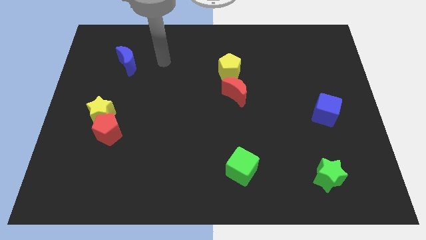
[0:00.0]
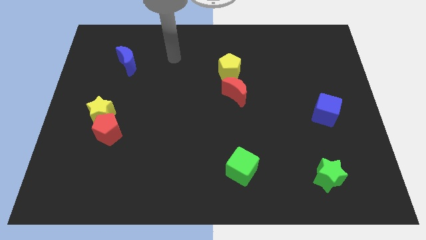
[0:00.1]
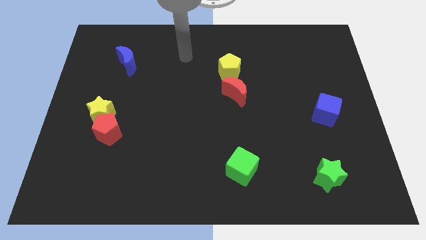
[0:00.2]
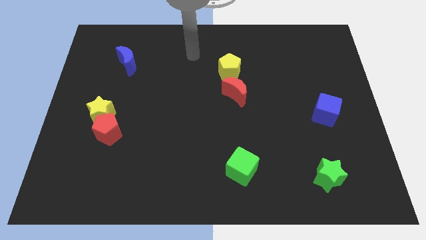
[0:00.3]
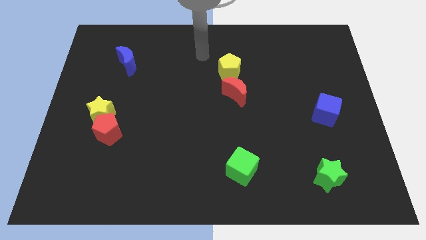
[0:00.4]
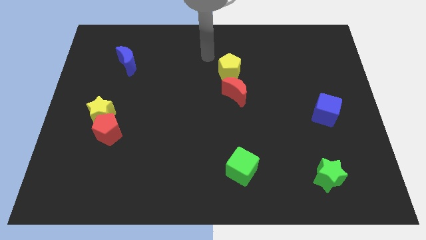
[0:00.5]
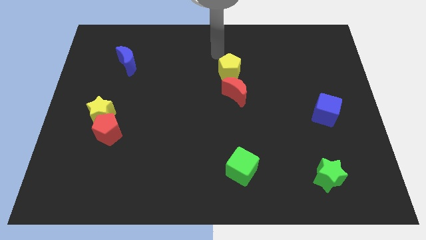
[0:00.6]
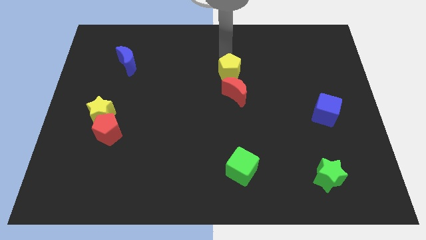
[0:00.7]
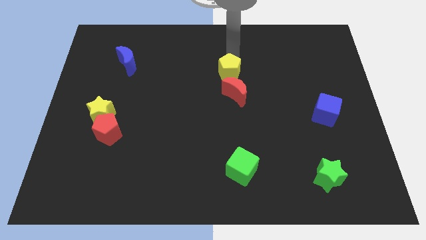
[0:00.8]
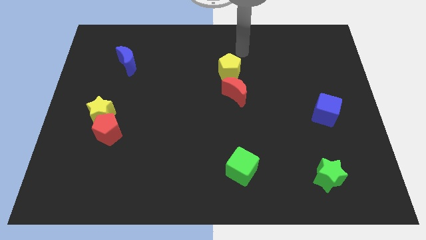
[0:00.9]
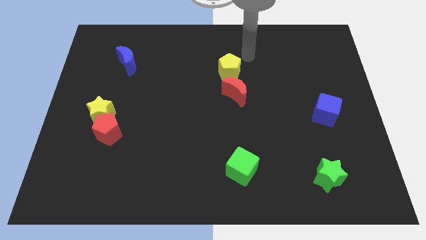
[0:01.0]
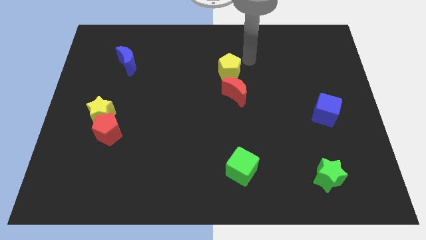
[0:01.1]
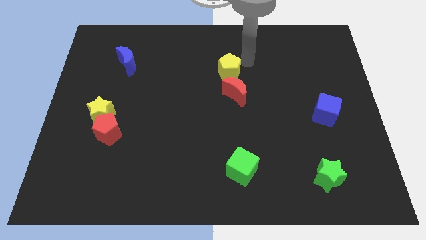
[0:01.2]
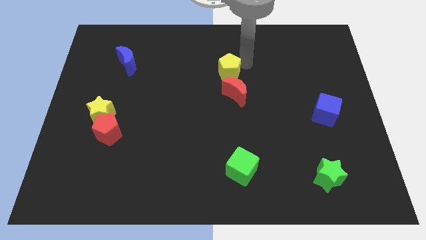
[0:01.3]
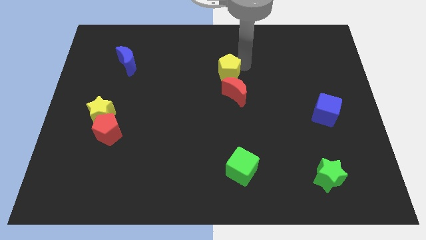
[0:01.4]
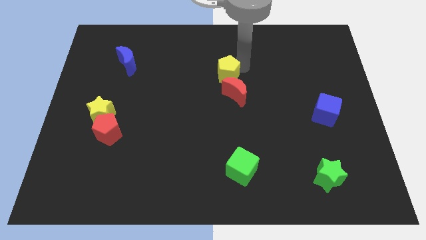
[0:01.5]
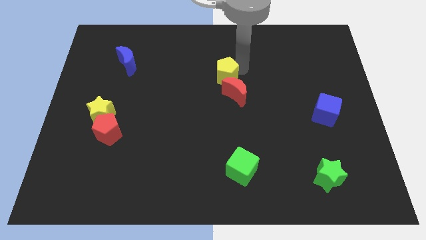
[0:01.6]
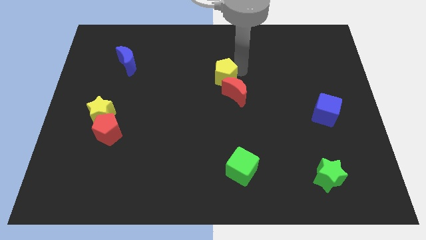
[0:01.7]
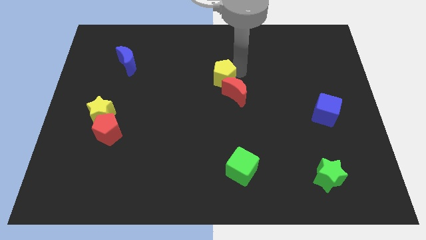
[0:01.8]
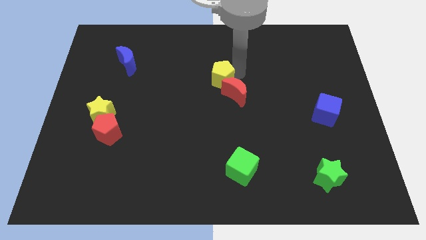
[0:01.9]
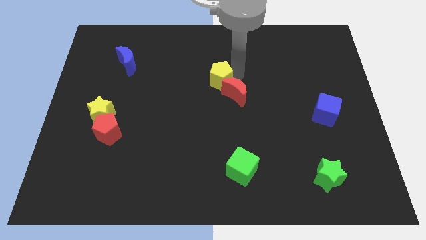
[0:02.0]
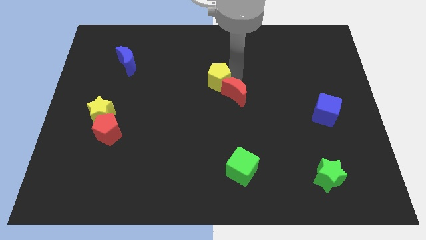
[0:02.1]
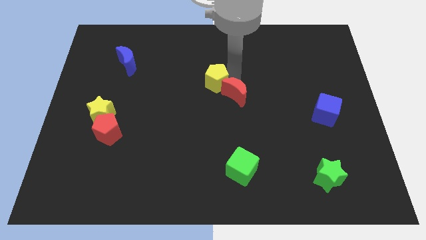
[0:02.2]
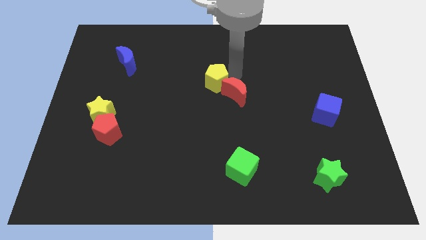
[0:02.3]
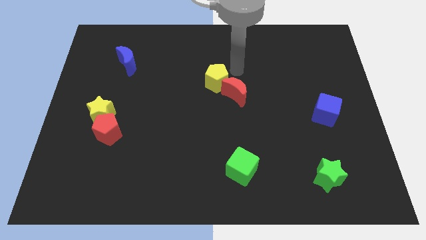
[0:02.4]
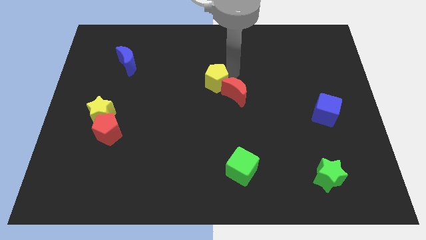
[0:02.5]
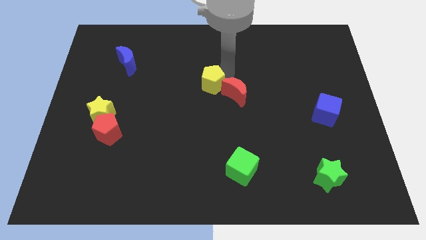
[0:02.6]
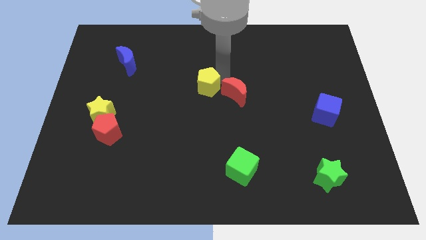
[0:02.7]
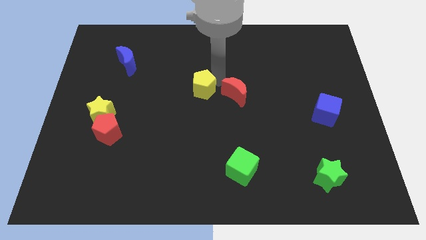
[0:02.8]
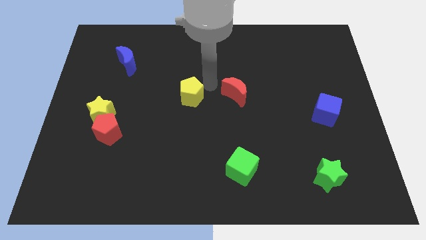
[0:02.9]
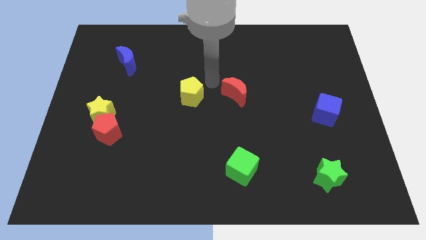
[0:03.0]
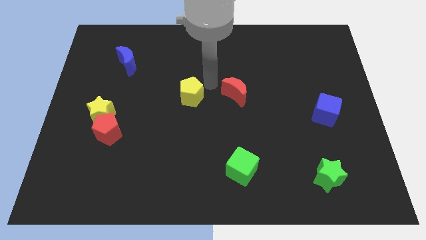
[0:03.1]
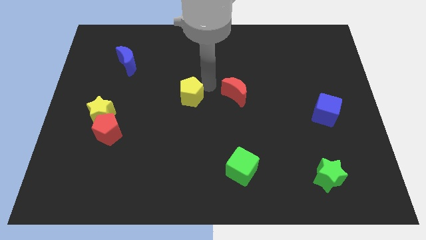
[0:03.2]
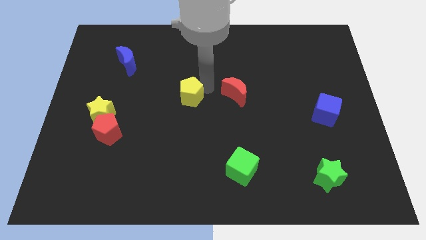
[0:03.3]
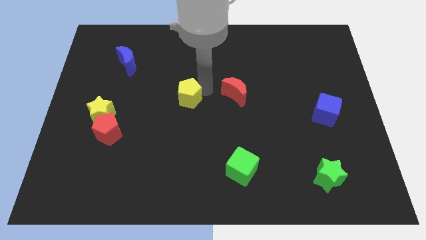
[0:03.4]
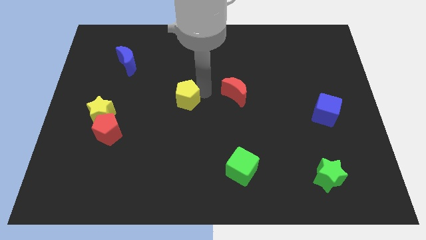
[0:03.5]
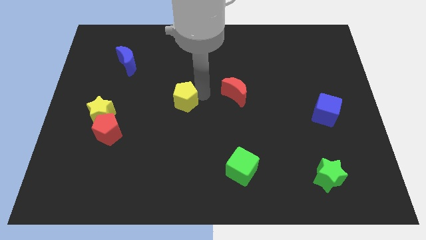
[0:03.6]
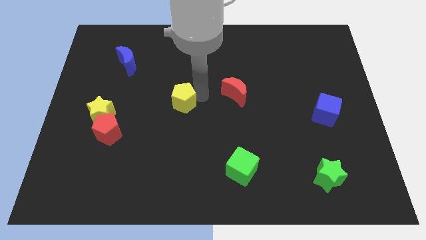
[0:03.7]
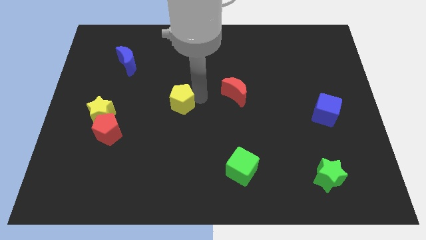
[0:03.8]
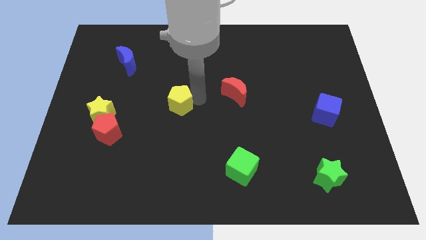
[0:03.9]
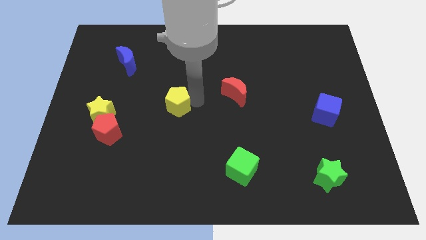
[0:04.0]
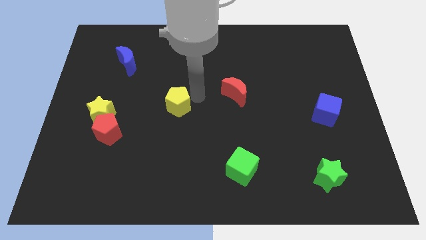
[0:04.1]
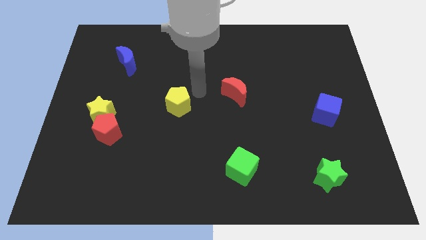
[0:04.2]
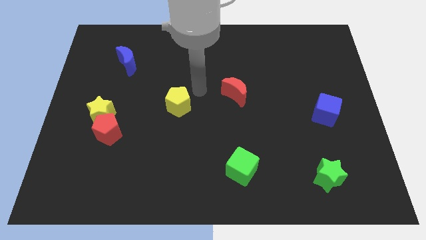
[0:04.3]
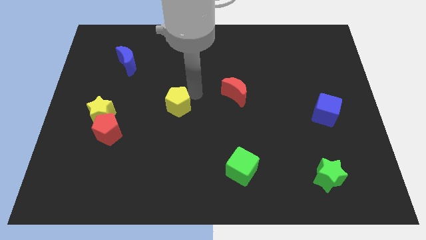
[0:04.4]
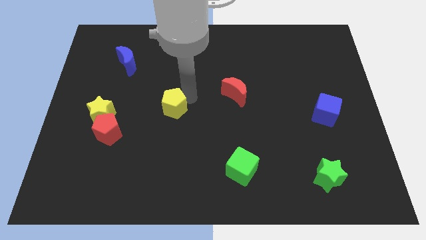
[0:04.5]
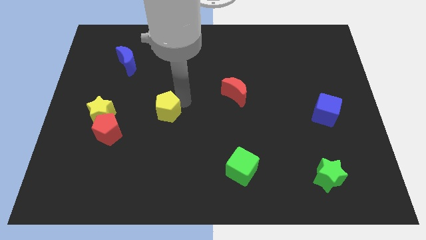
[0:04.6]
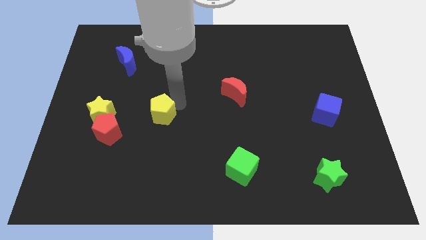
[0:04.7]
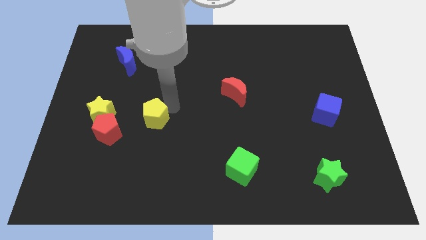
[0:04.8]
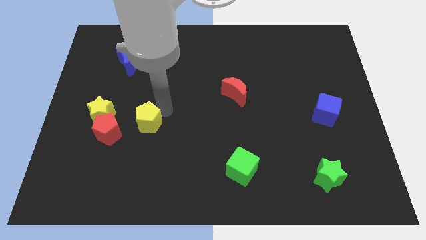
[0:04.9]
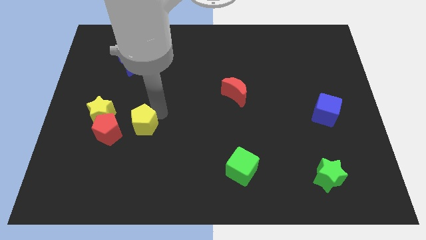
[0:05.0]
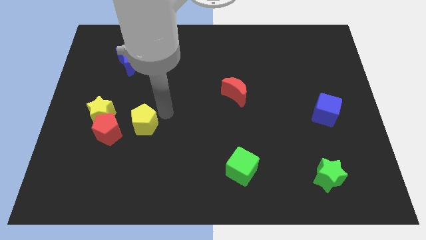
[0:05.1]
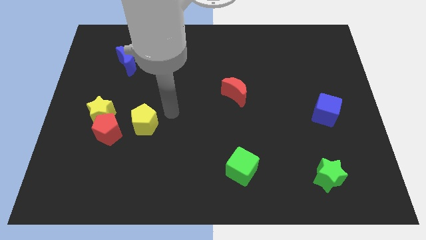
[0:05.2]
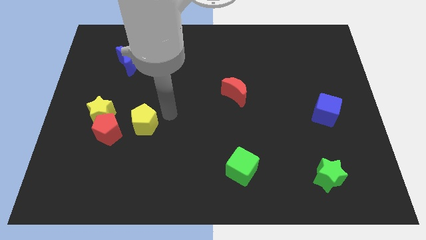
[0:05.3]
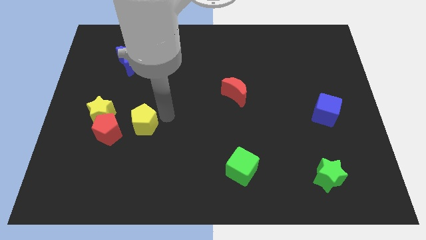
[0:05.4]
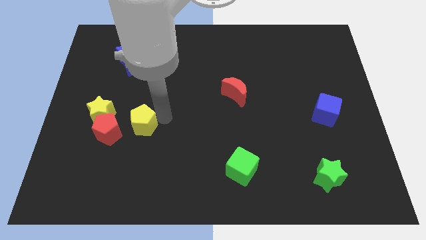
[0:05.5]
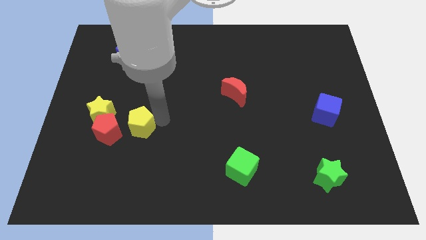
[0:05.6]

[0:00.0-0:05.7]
put the yellow pentagon diagonally down and to the right of the yellow star

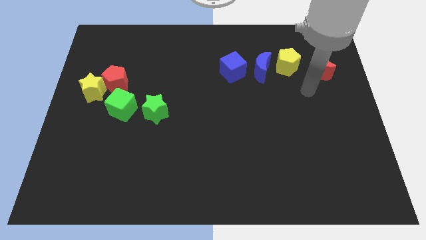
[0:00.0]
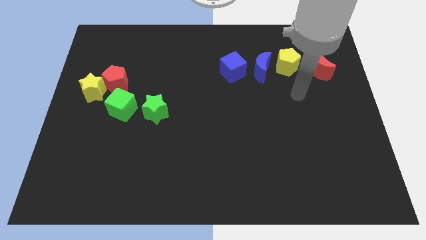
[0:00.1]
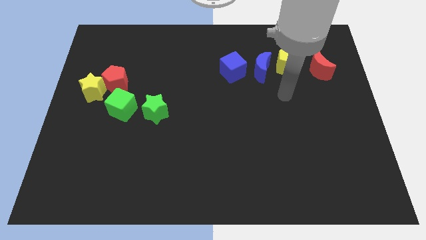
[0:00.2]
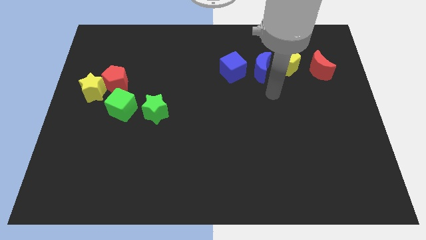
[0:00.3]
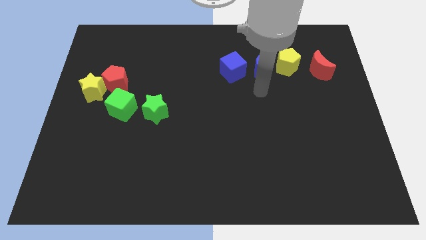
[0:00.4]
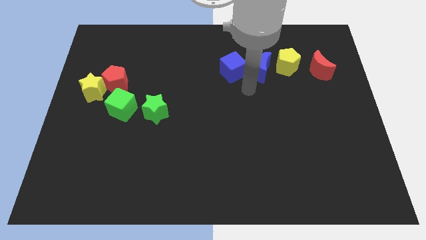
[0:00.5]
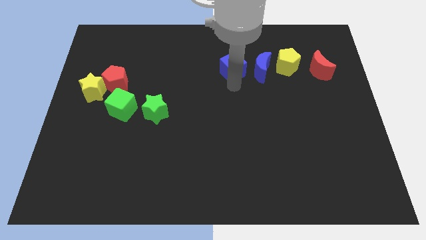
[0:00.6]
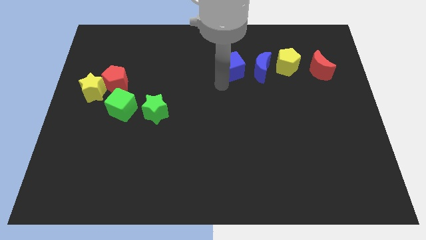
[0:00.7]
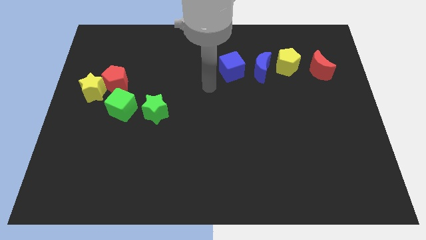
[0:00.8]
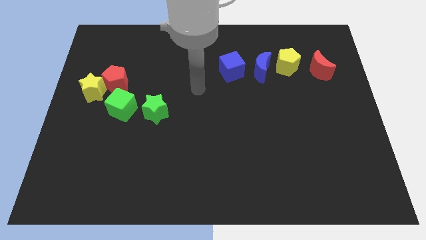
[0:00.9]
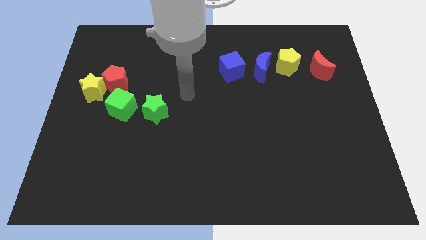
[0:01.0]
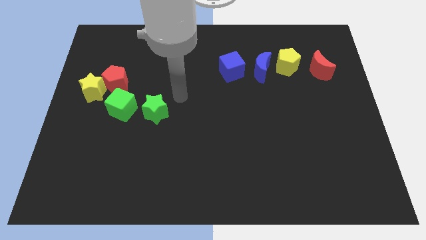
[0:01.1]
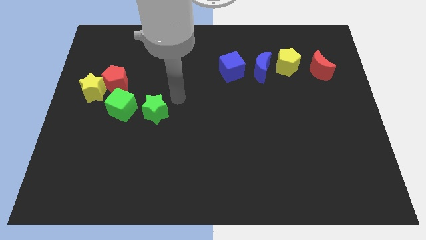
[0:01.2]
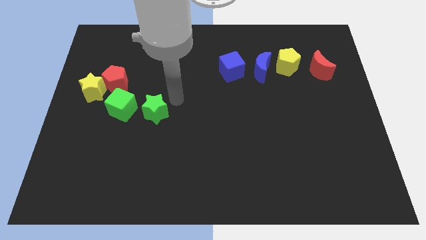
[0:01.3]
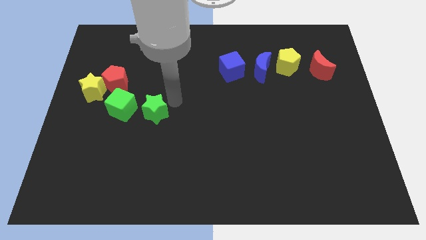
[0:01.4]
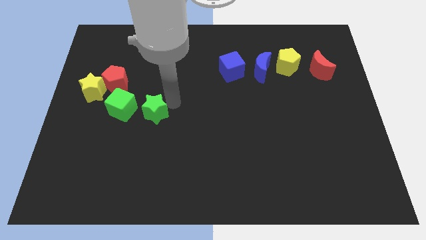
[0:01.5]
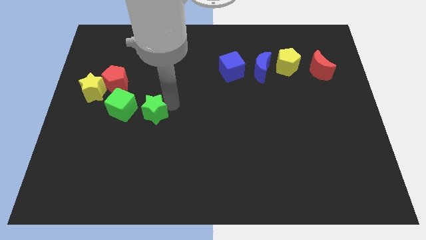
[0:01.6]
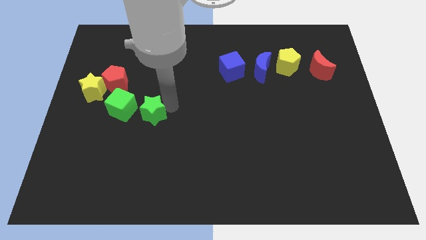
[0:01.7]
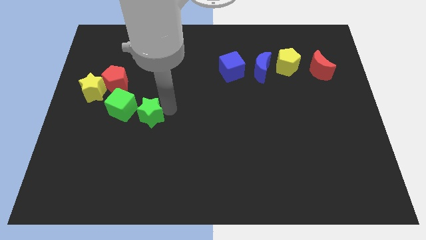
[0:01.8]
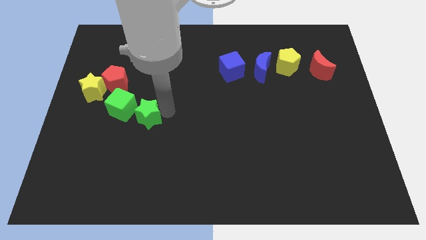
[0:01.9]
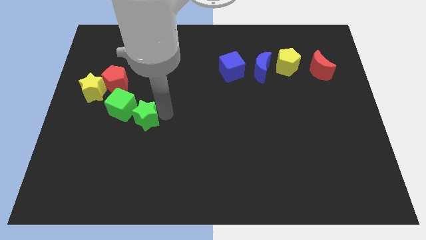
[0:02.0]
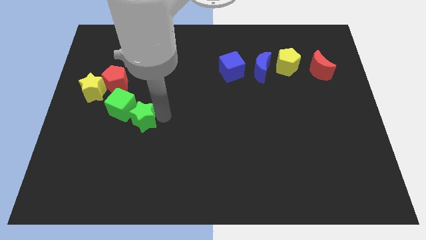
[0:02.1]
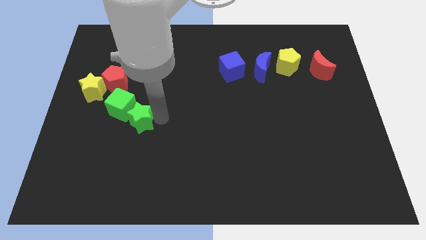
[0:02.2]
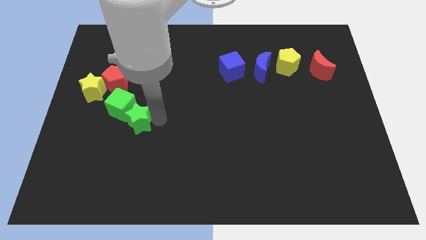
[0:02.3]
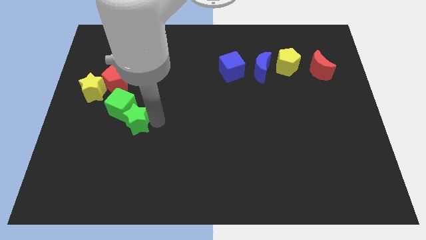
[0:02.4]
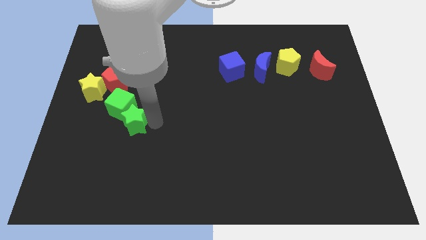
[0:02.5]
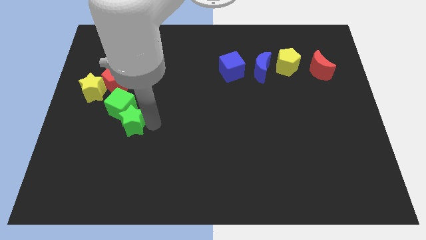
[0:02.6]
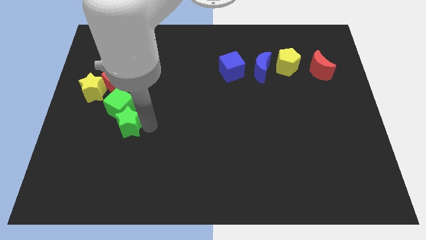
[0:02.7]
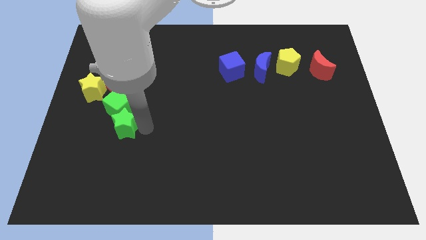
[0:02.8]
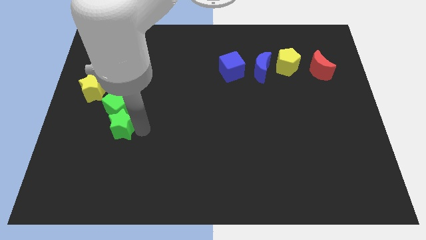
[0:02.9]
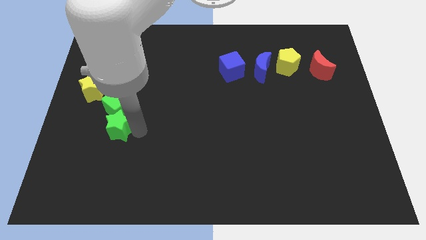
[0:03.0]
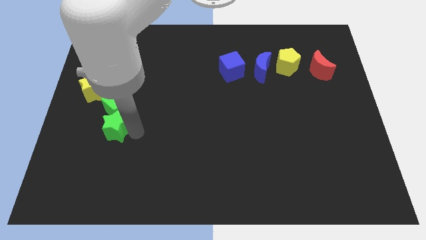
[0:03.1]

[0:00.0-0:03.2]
put the green star to the bottom left of the green cube
